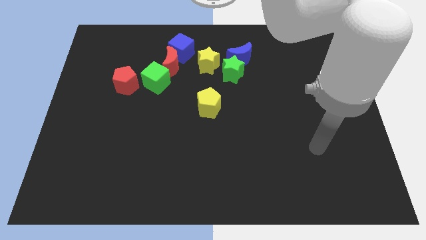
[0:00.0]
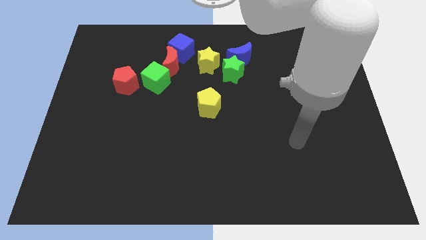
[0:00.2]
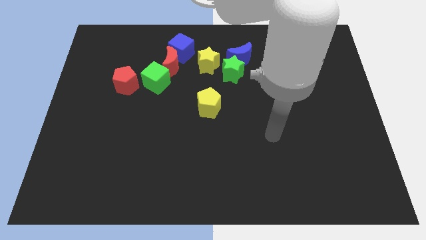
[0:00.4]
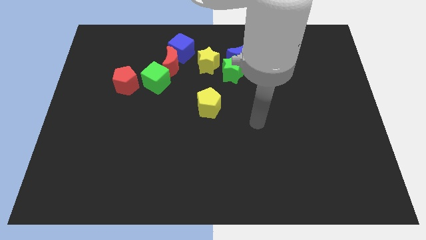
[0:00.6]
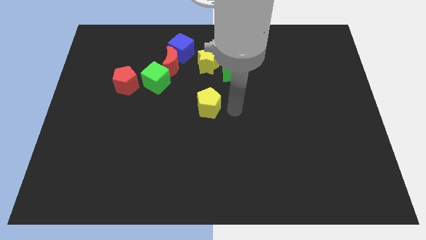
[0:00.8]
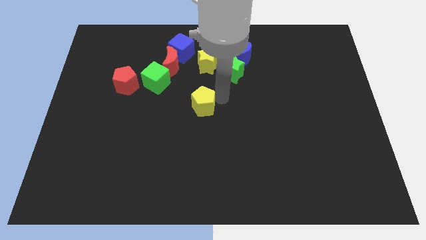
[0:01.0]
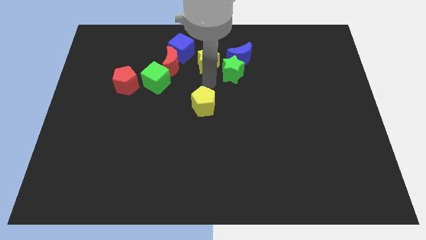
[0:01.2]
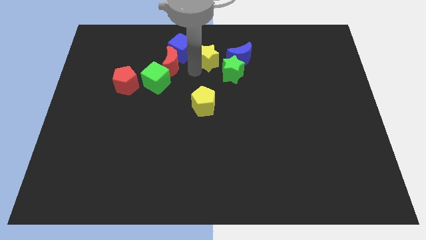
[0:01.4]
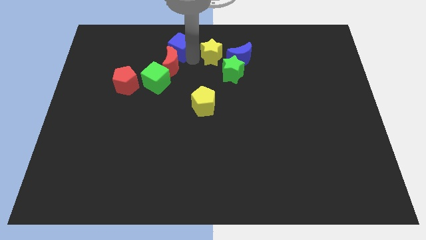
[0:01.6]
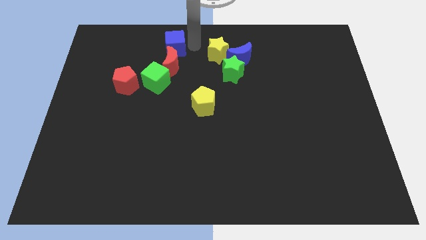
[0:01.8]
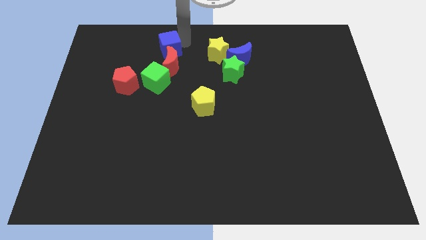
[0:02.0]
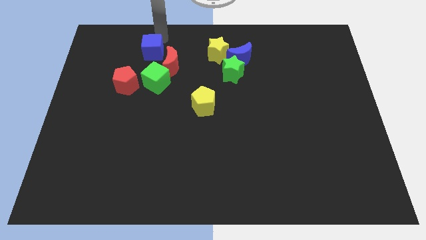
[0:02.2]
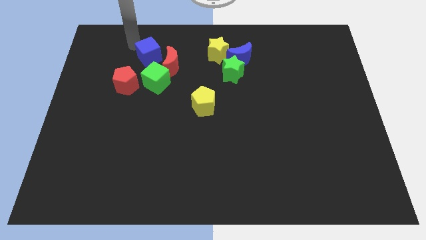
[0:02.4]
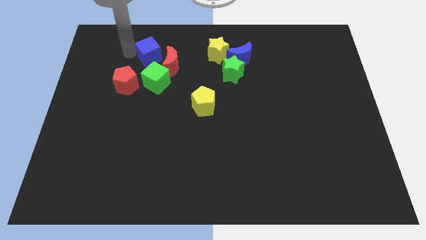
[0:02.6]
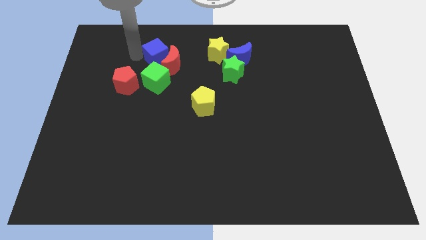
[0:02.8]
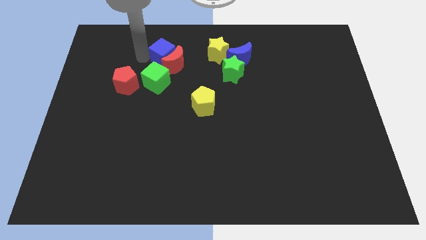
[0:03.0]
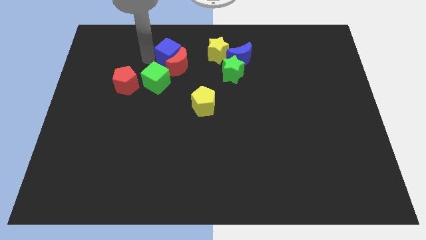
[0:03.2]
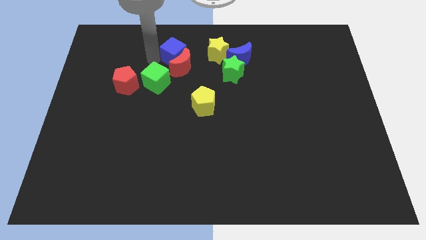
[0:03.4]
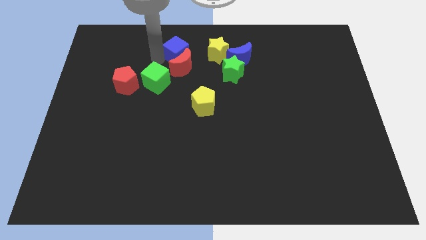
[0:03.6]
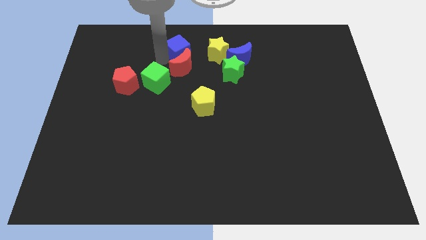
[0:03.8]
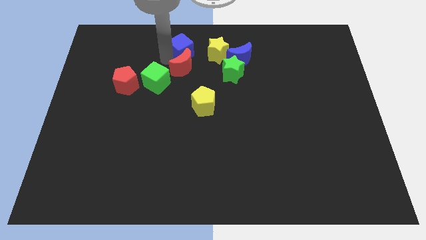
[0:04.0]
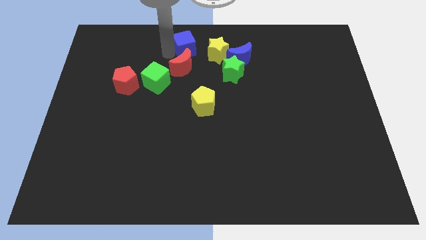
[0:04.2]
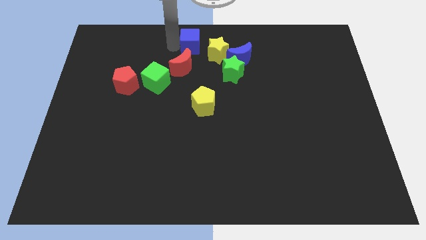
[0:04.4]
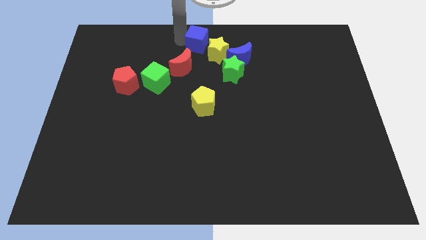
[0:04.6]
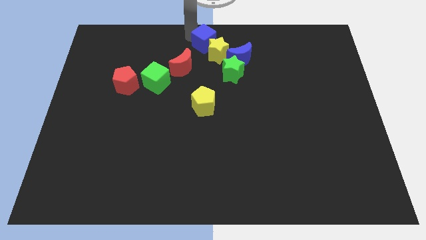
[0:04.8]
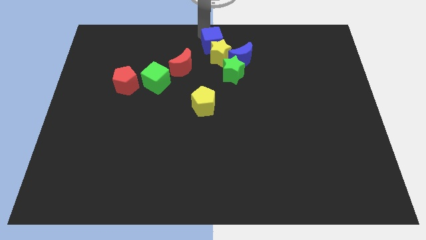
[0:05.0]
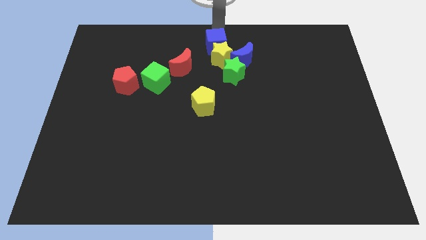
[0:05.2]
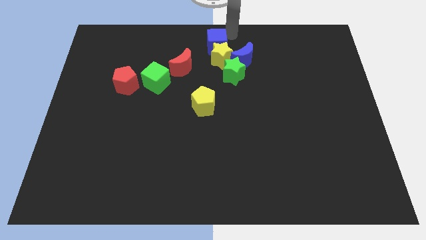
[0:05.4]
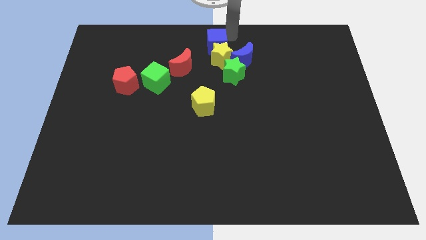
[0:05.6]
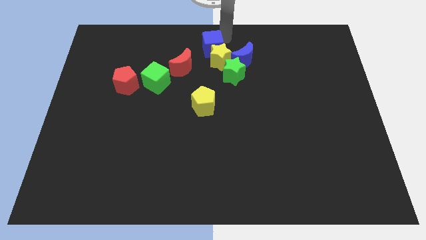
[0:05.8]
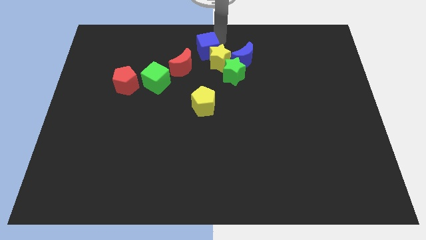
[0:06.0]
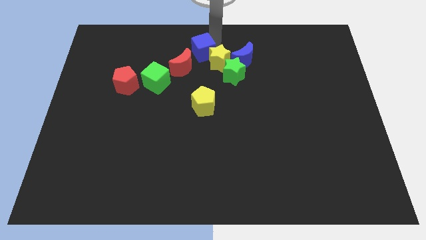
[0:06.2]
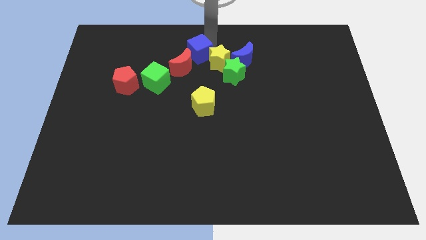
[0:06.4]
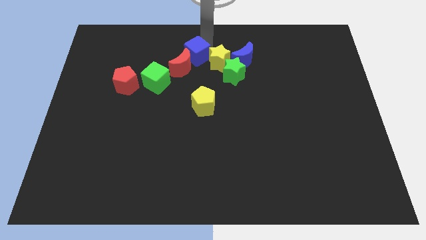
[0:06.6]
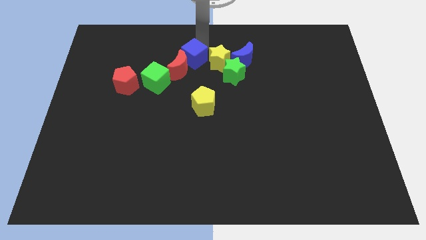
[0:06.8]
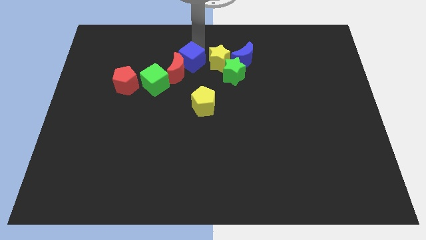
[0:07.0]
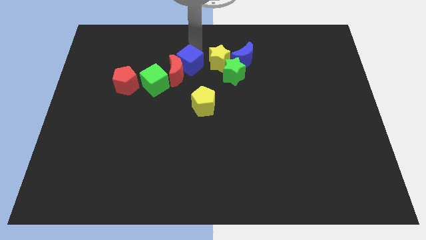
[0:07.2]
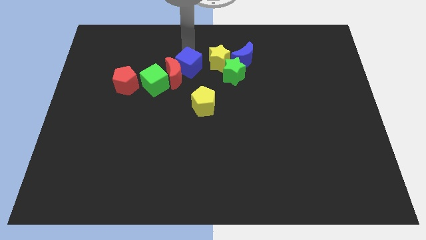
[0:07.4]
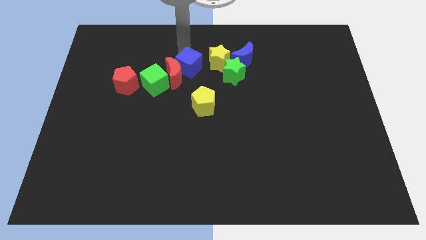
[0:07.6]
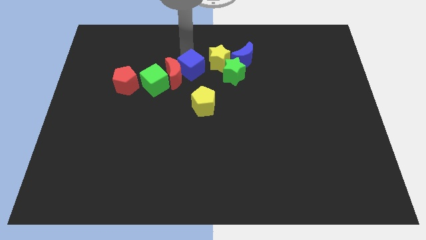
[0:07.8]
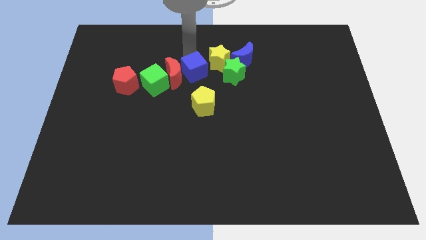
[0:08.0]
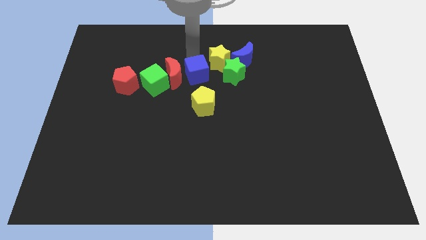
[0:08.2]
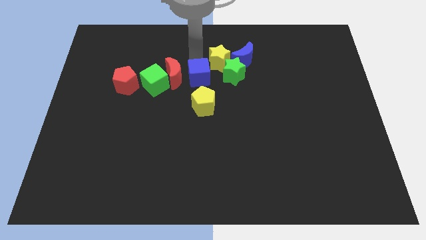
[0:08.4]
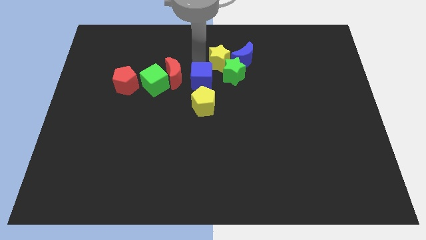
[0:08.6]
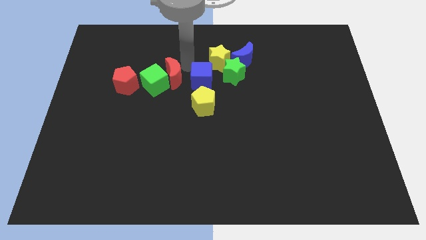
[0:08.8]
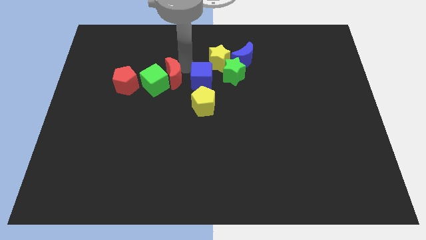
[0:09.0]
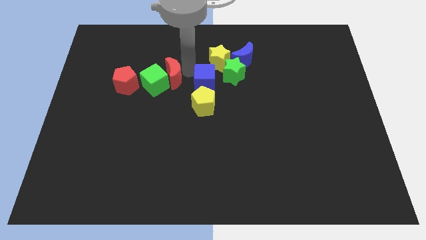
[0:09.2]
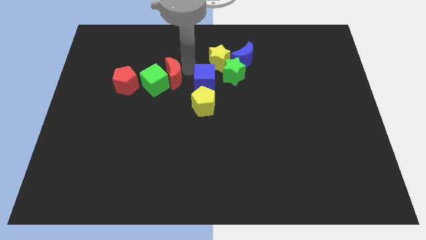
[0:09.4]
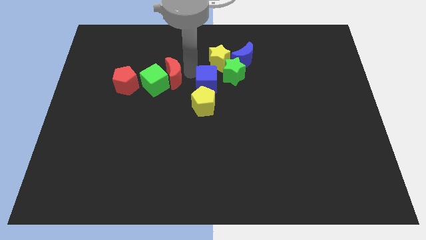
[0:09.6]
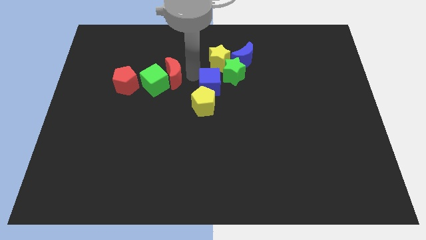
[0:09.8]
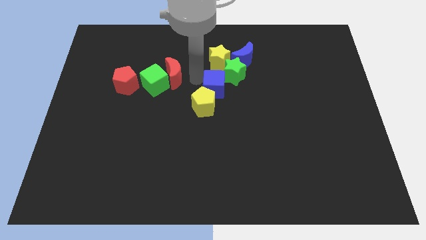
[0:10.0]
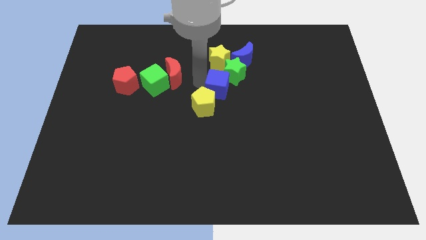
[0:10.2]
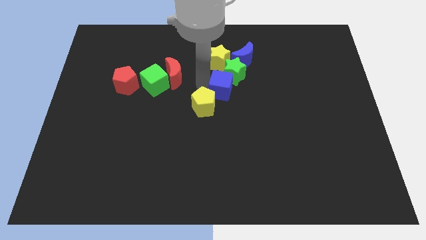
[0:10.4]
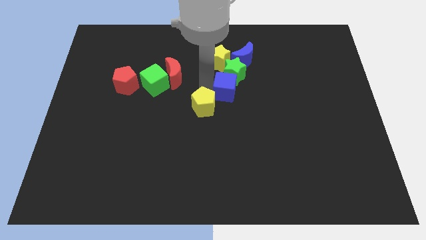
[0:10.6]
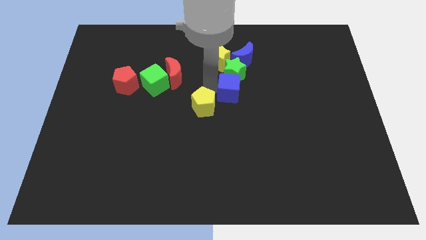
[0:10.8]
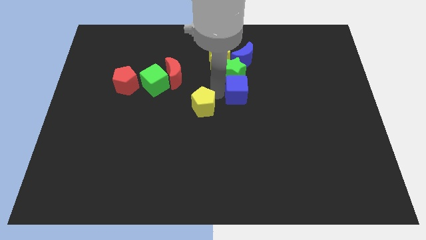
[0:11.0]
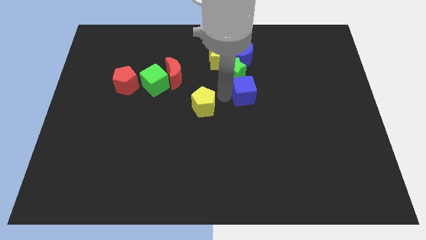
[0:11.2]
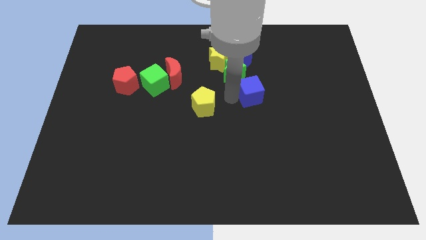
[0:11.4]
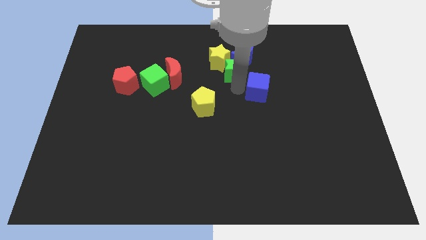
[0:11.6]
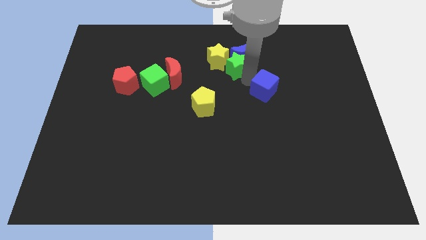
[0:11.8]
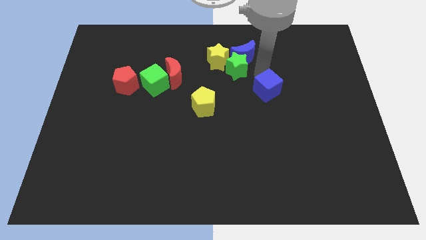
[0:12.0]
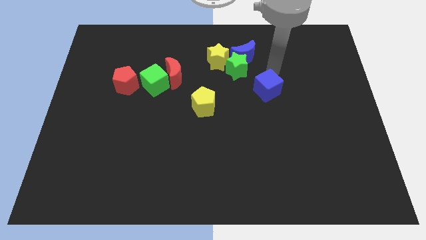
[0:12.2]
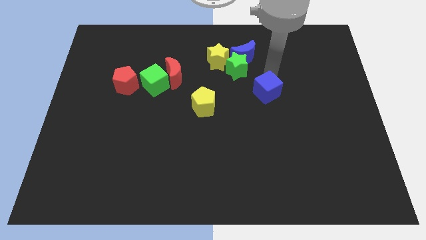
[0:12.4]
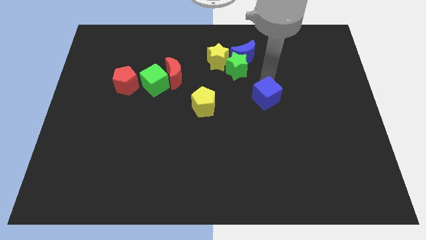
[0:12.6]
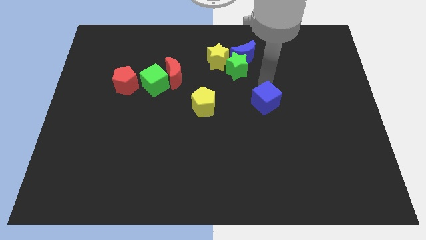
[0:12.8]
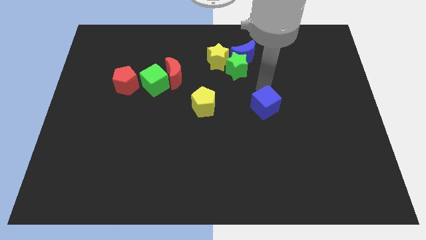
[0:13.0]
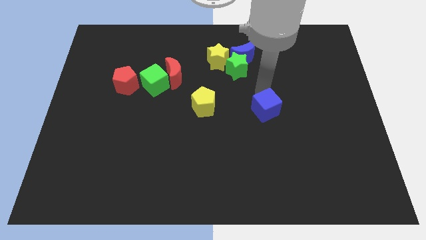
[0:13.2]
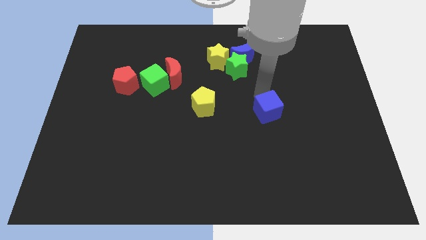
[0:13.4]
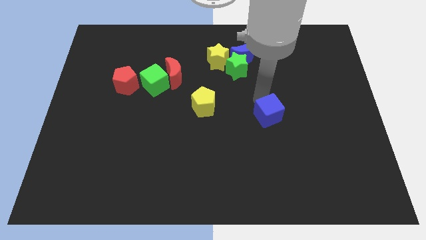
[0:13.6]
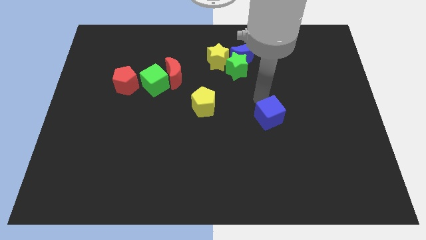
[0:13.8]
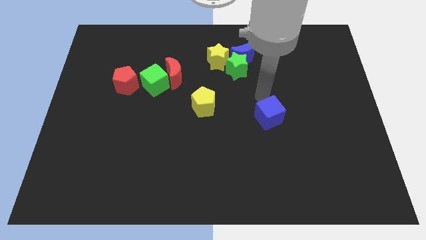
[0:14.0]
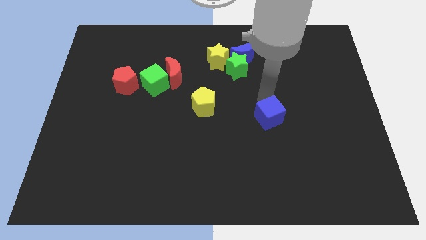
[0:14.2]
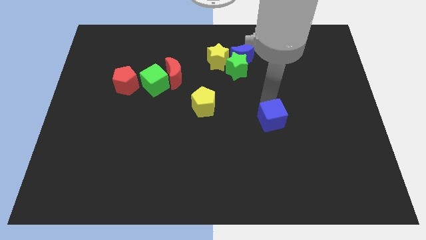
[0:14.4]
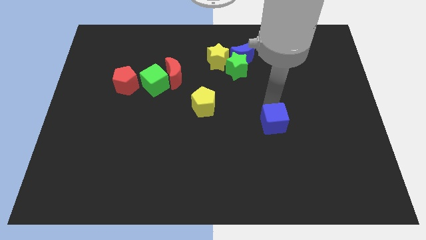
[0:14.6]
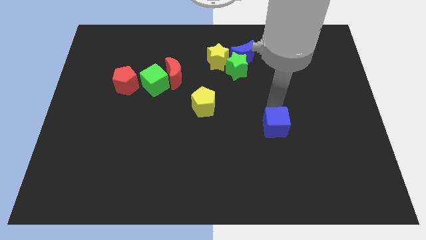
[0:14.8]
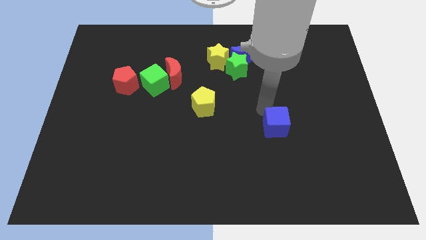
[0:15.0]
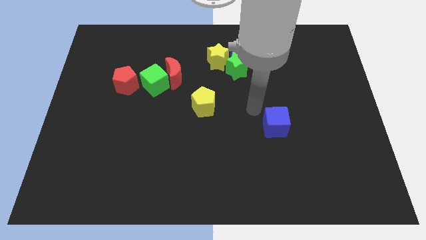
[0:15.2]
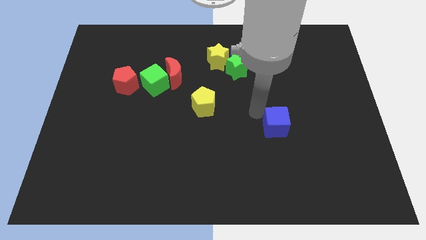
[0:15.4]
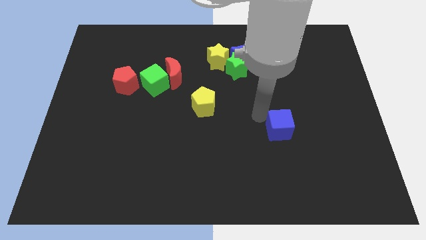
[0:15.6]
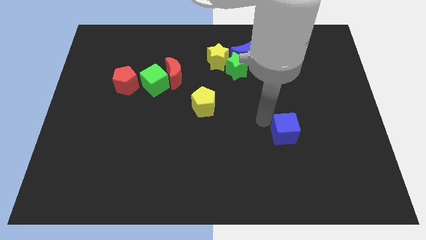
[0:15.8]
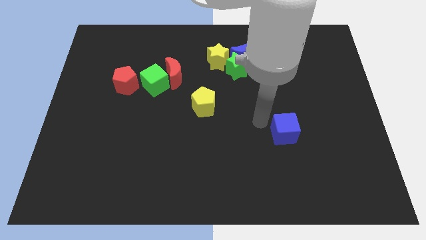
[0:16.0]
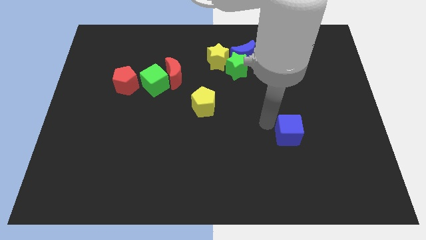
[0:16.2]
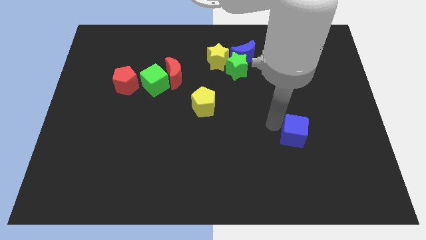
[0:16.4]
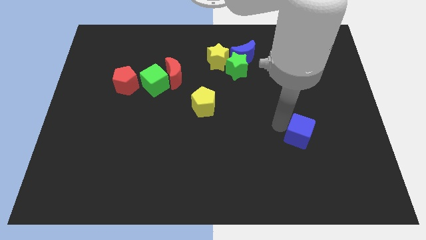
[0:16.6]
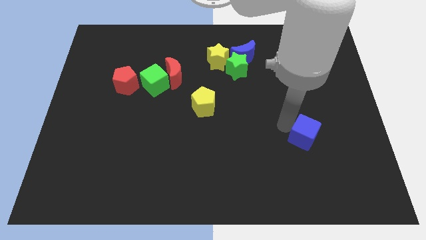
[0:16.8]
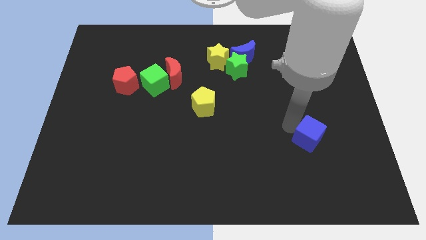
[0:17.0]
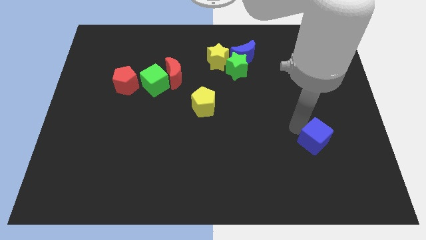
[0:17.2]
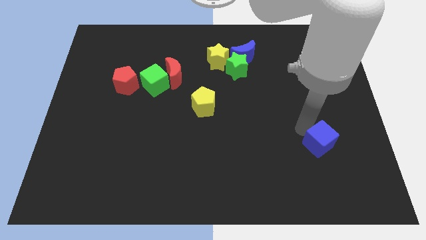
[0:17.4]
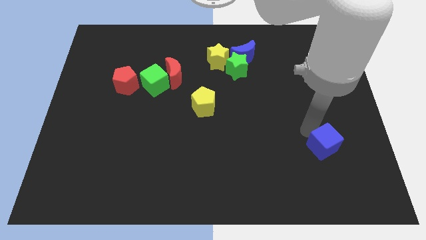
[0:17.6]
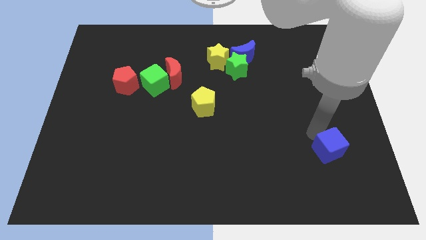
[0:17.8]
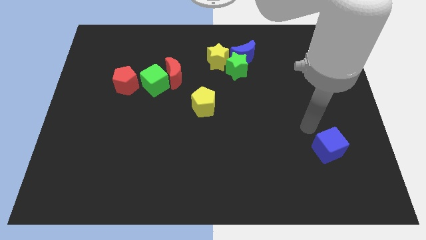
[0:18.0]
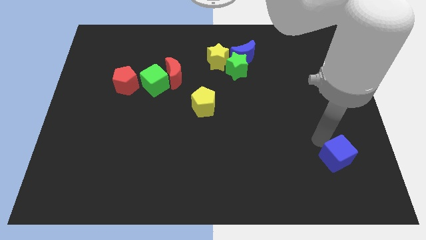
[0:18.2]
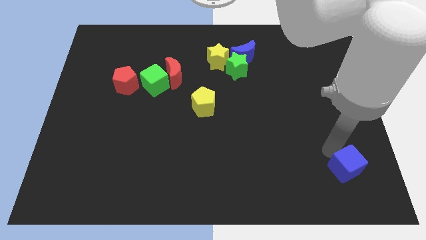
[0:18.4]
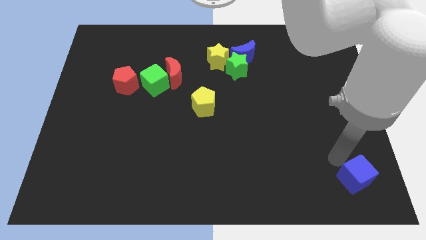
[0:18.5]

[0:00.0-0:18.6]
put the blue cube to the bottom right corner
